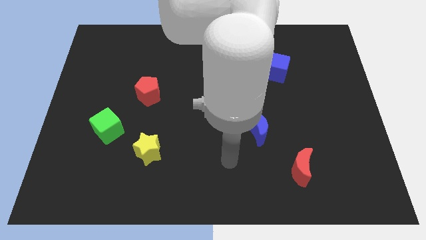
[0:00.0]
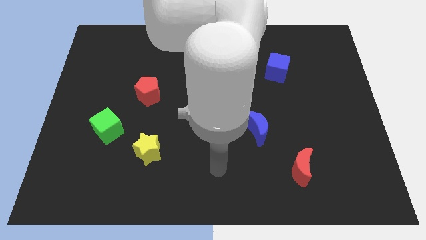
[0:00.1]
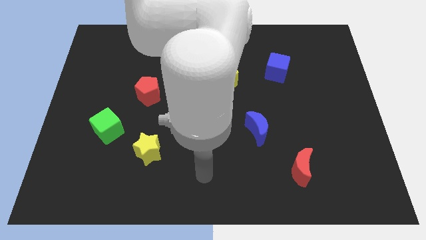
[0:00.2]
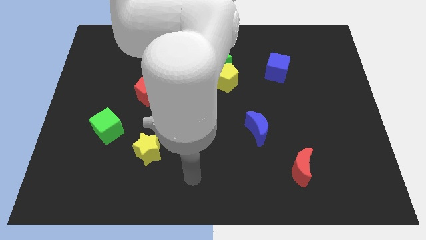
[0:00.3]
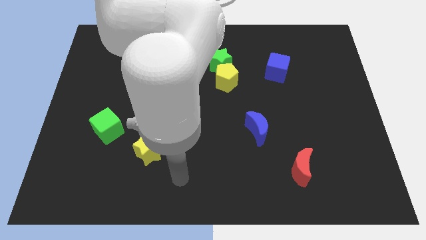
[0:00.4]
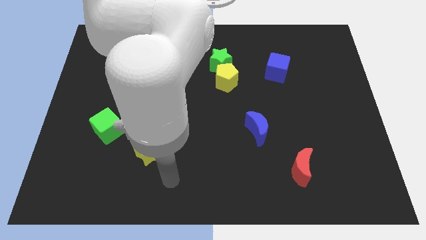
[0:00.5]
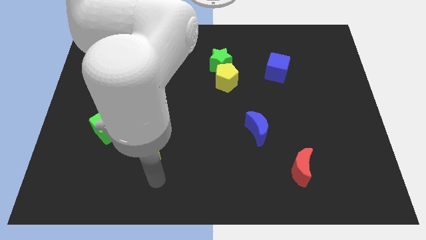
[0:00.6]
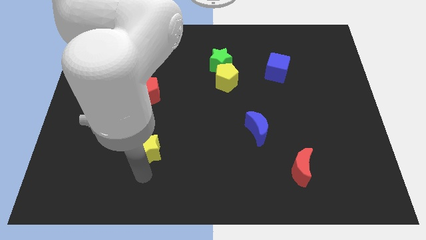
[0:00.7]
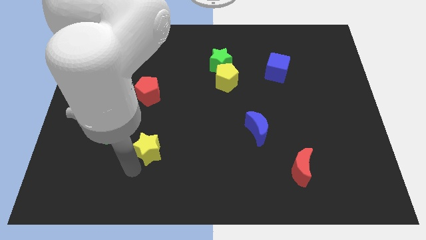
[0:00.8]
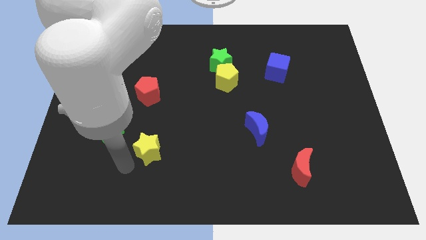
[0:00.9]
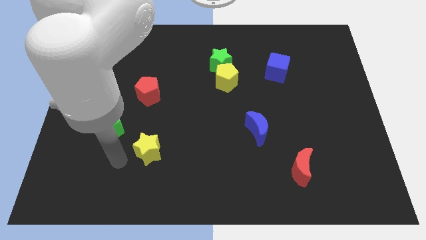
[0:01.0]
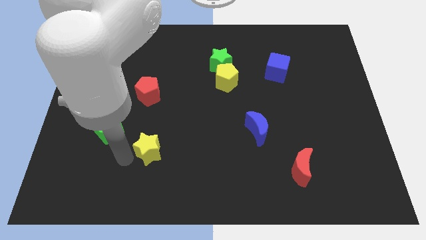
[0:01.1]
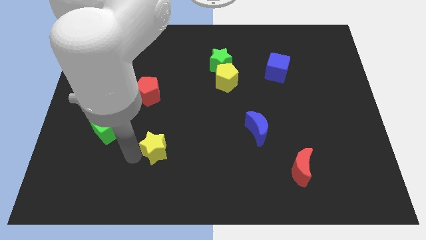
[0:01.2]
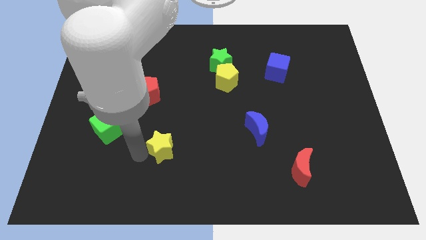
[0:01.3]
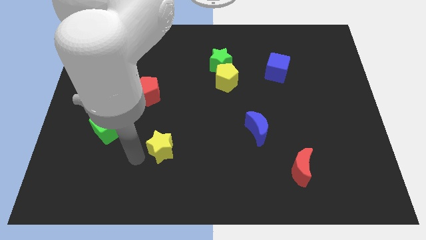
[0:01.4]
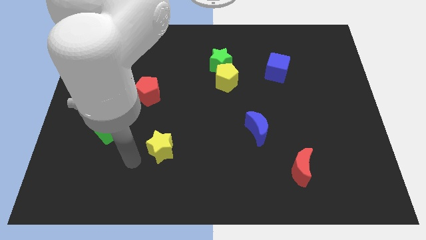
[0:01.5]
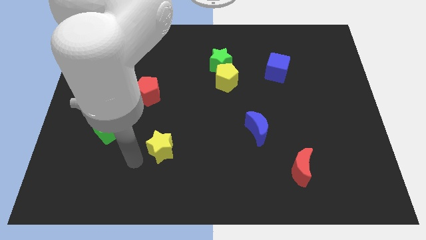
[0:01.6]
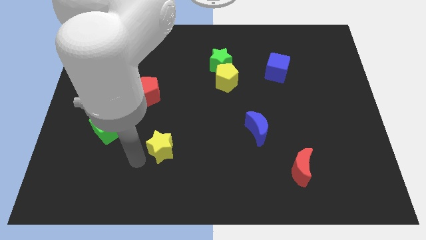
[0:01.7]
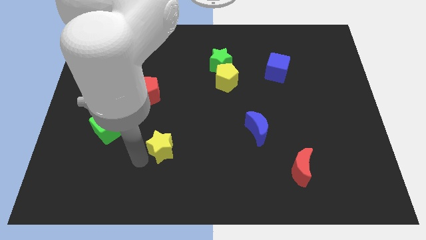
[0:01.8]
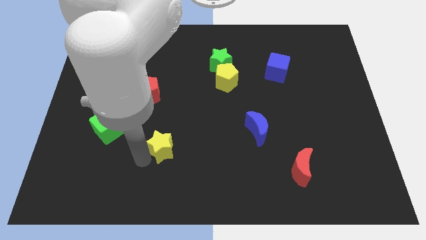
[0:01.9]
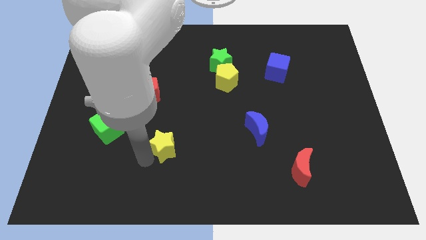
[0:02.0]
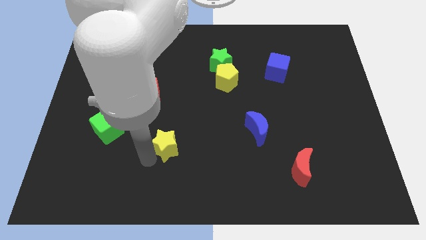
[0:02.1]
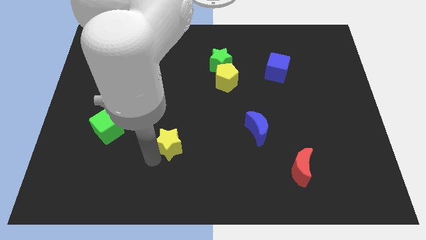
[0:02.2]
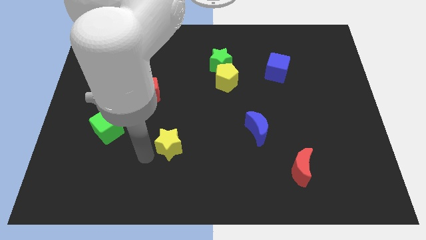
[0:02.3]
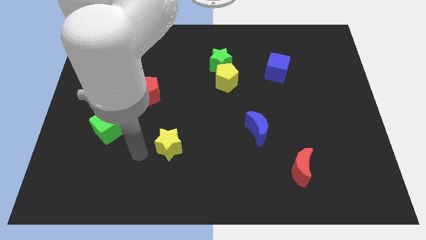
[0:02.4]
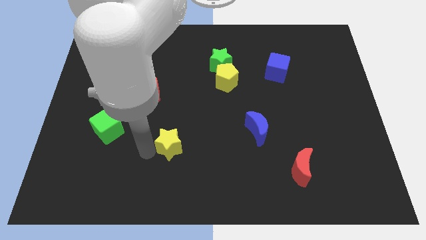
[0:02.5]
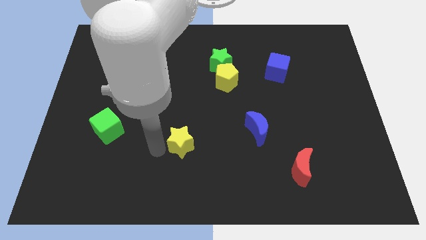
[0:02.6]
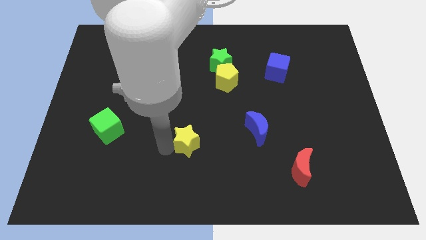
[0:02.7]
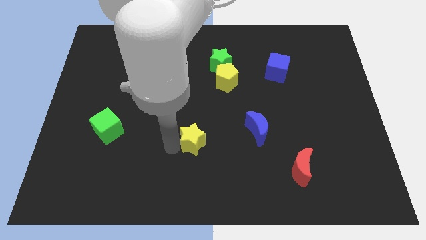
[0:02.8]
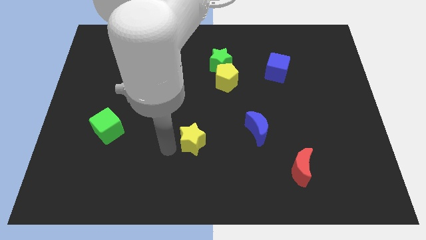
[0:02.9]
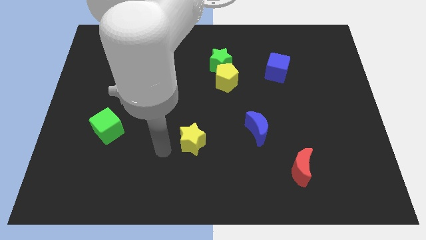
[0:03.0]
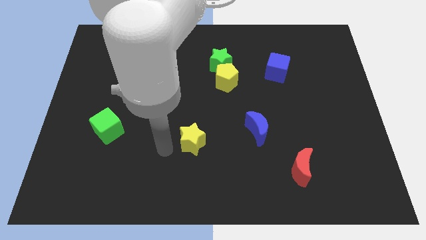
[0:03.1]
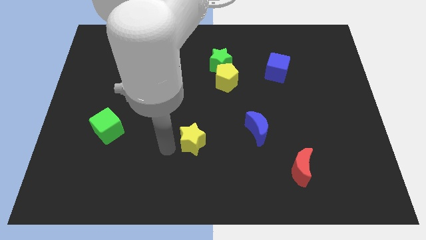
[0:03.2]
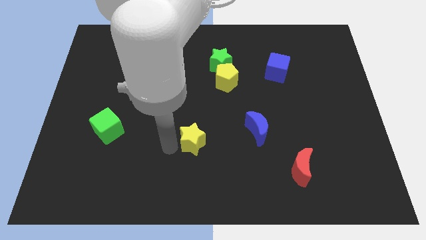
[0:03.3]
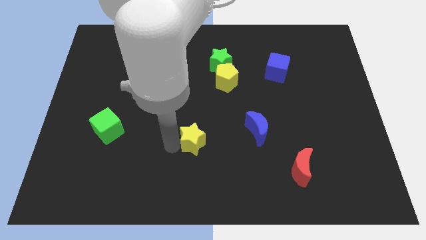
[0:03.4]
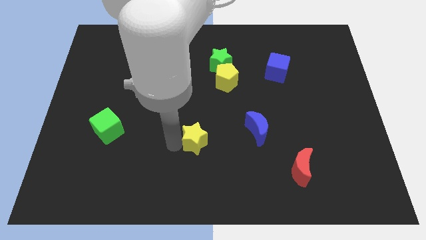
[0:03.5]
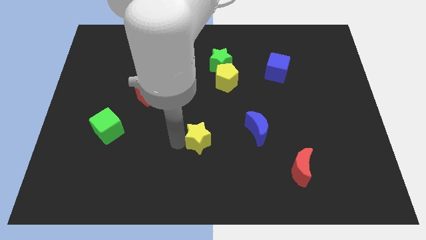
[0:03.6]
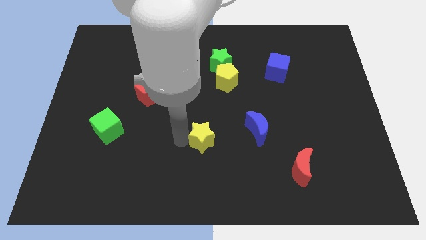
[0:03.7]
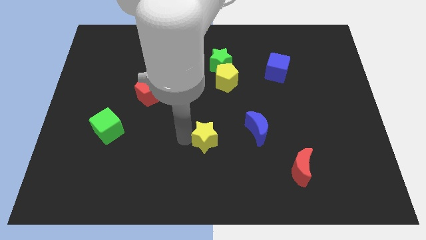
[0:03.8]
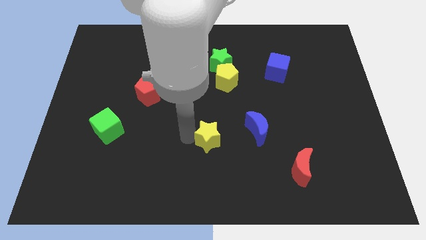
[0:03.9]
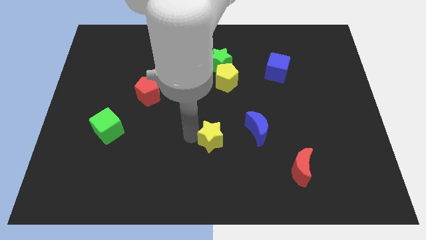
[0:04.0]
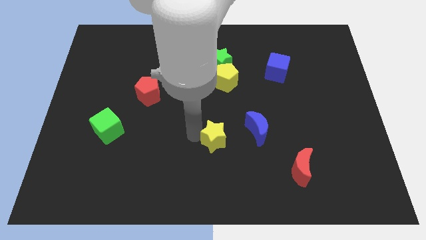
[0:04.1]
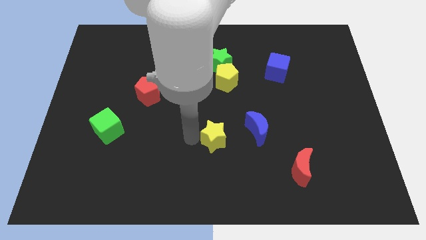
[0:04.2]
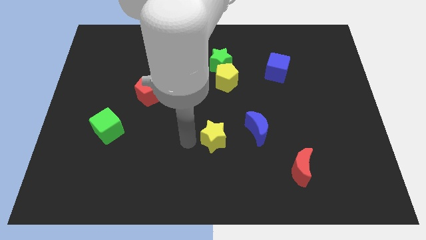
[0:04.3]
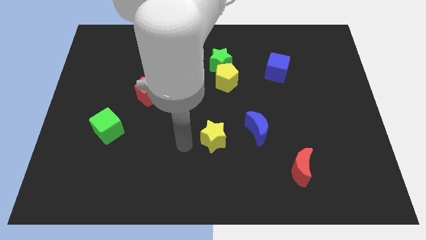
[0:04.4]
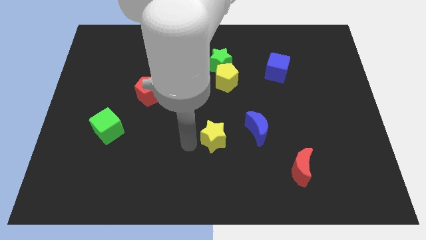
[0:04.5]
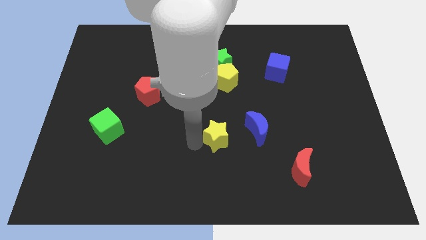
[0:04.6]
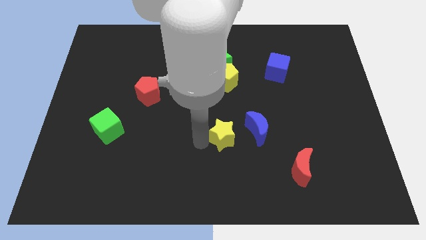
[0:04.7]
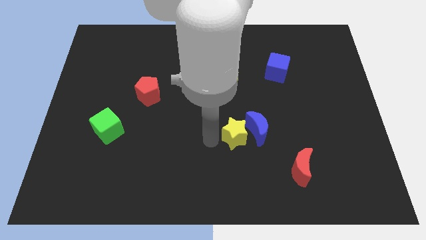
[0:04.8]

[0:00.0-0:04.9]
move the yellow star next to the blue moon

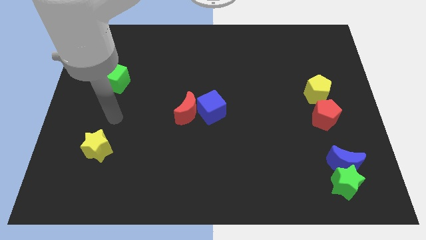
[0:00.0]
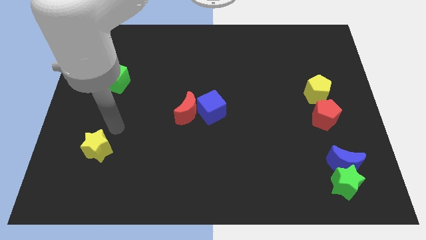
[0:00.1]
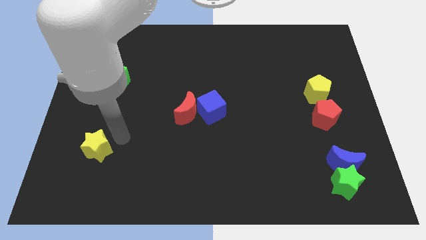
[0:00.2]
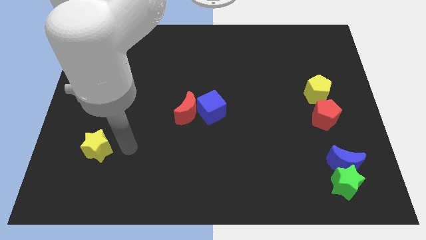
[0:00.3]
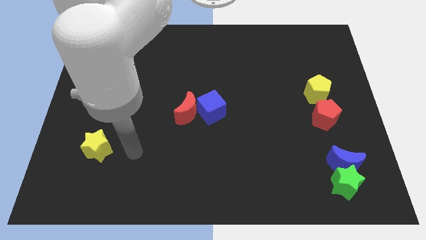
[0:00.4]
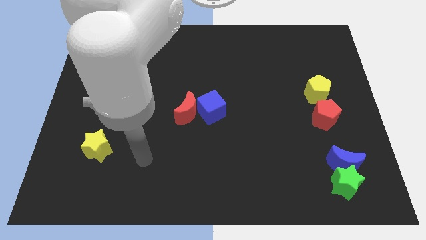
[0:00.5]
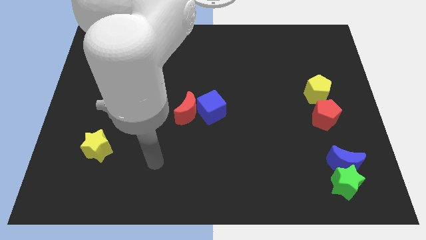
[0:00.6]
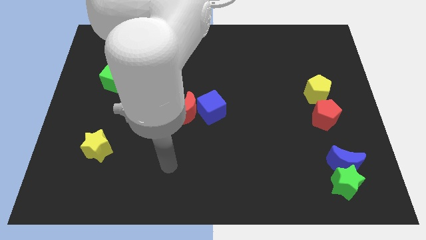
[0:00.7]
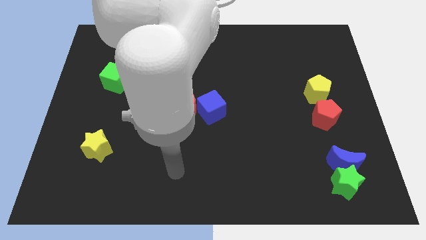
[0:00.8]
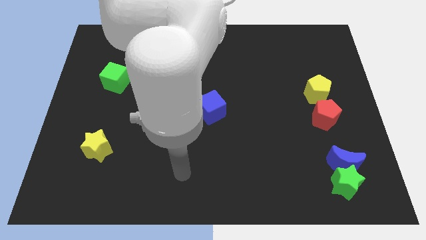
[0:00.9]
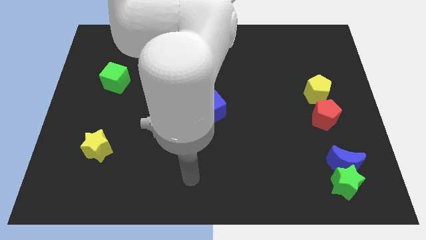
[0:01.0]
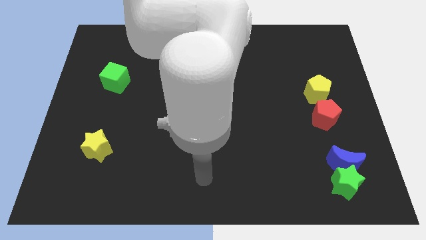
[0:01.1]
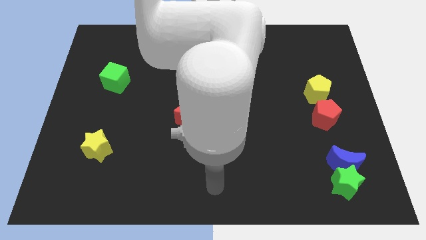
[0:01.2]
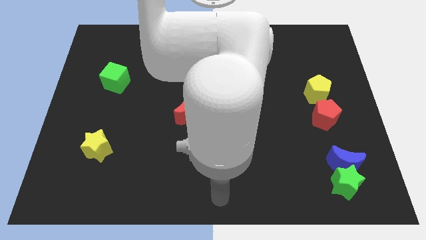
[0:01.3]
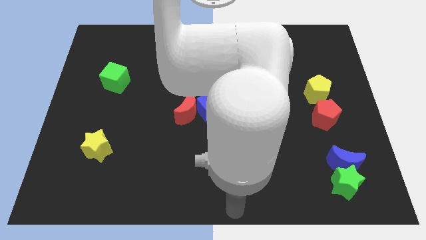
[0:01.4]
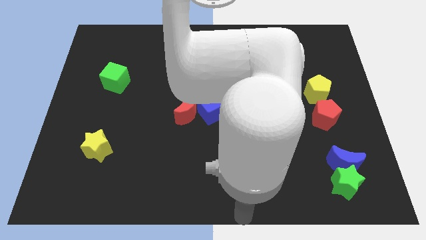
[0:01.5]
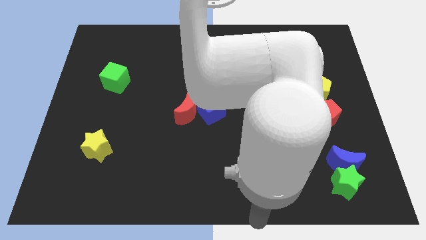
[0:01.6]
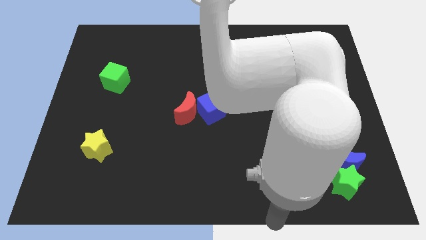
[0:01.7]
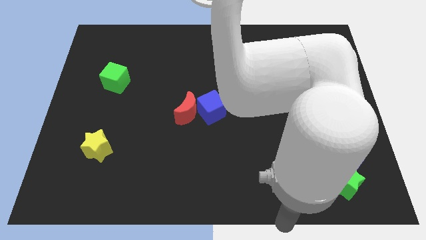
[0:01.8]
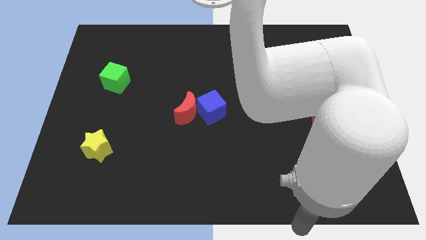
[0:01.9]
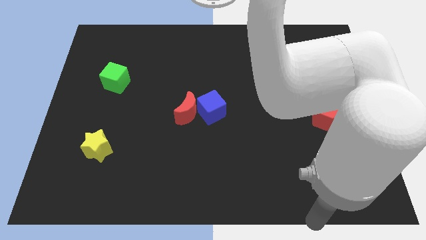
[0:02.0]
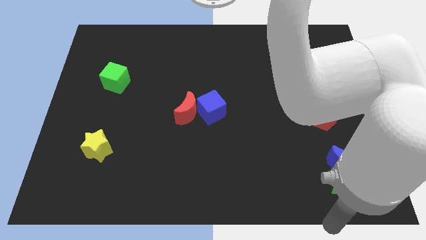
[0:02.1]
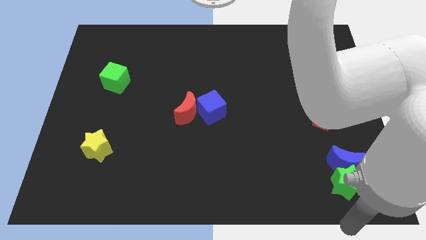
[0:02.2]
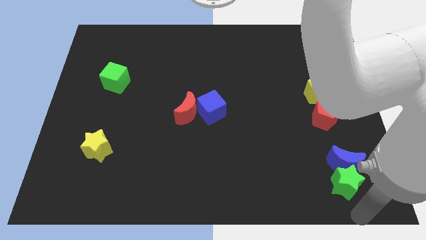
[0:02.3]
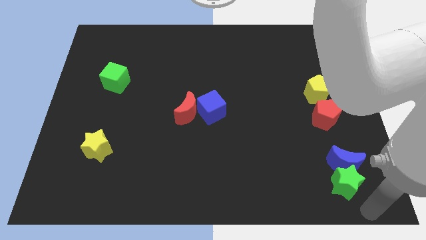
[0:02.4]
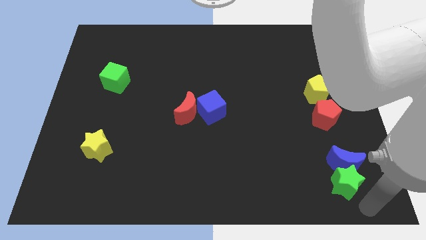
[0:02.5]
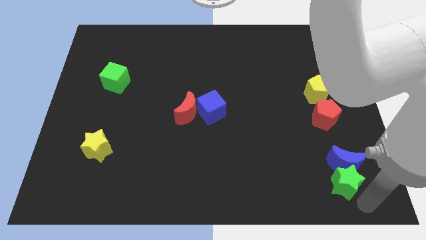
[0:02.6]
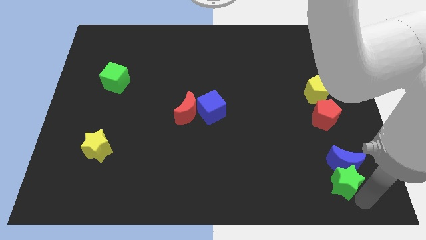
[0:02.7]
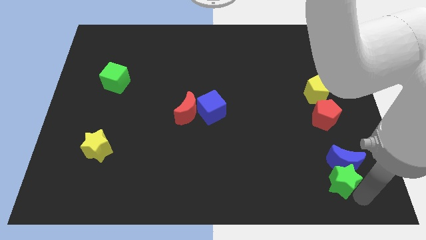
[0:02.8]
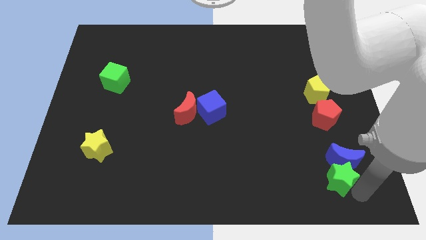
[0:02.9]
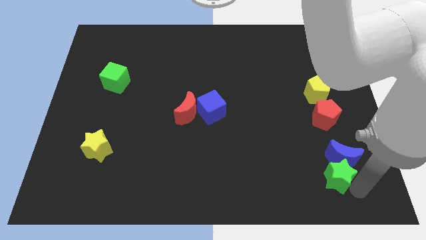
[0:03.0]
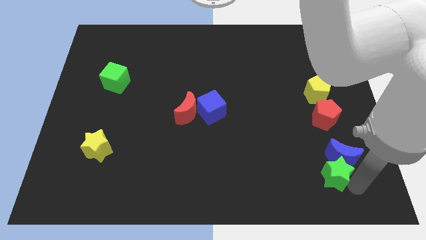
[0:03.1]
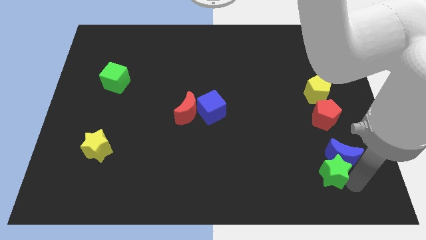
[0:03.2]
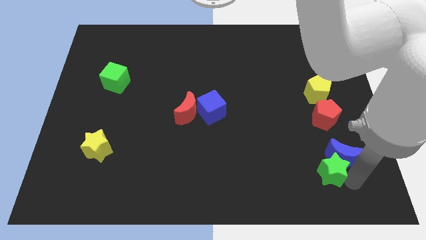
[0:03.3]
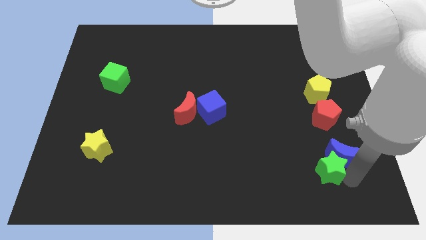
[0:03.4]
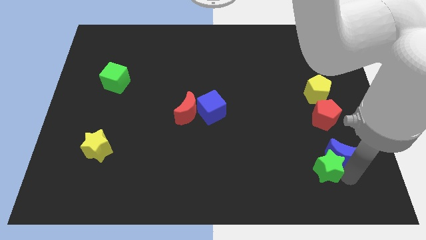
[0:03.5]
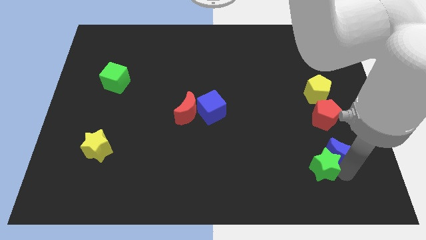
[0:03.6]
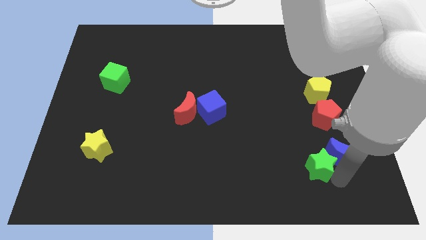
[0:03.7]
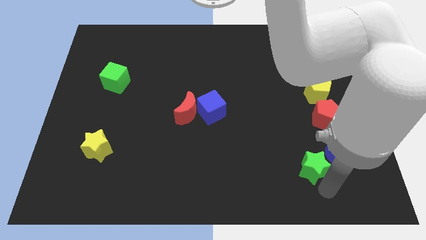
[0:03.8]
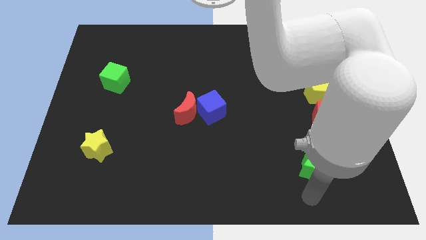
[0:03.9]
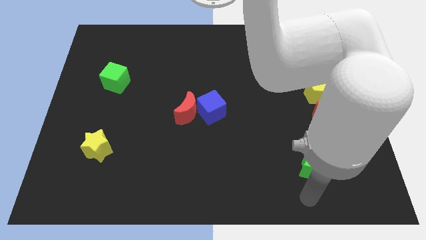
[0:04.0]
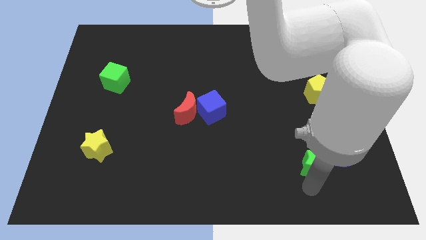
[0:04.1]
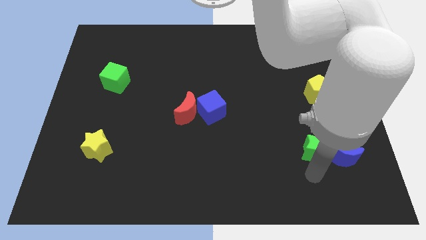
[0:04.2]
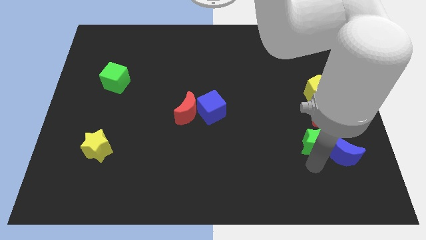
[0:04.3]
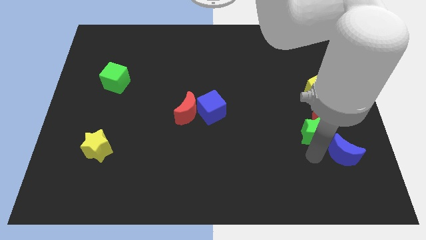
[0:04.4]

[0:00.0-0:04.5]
push the green star next to the red pentagon
